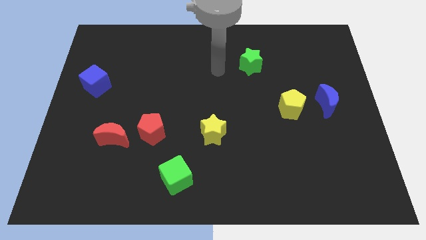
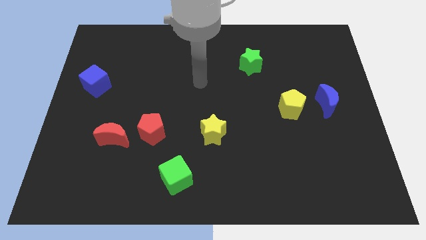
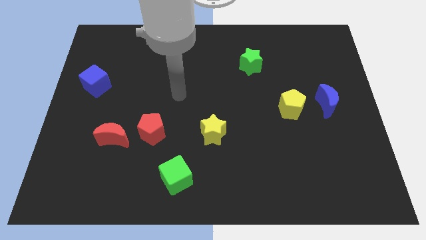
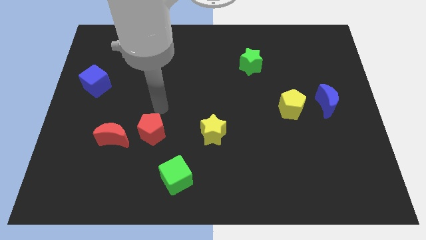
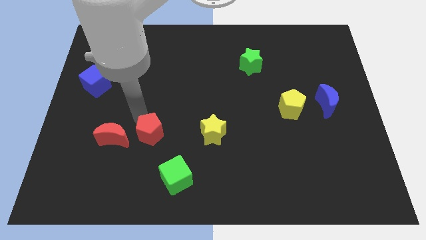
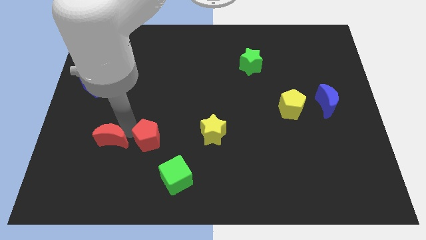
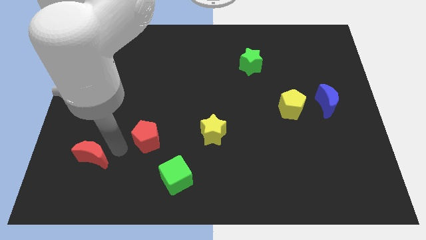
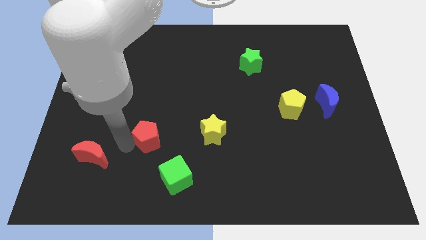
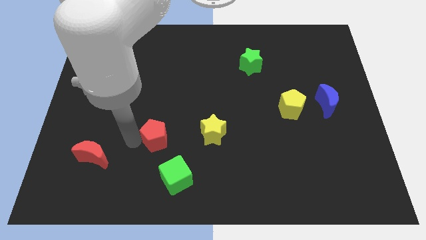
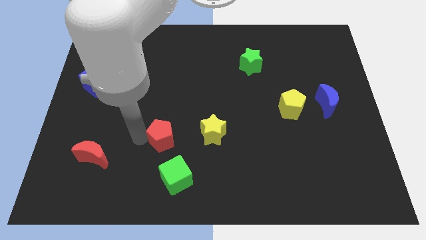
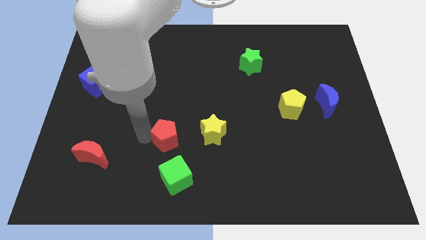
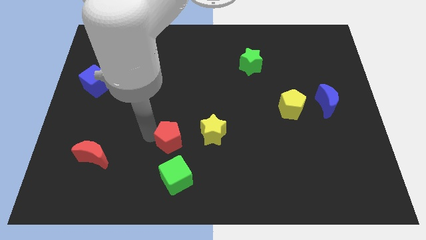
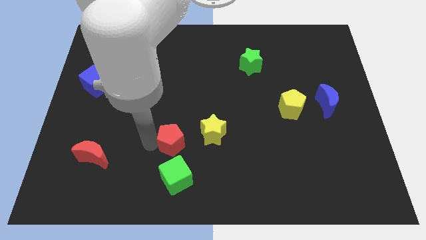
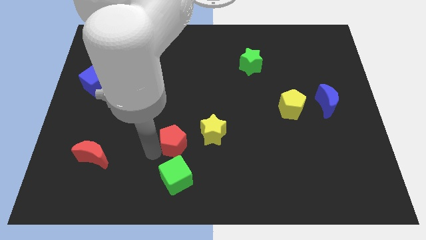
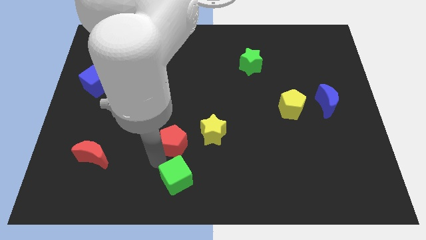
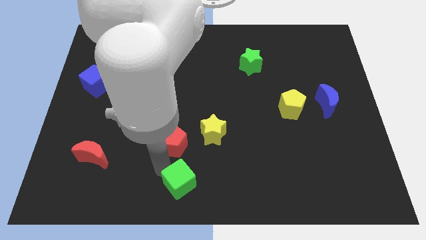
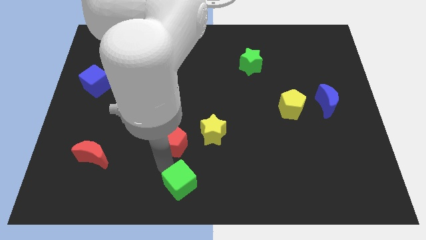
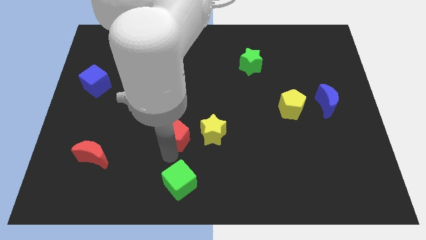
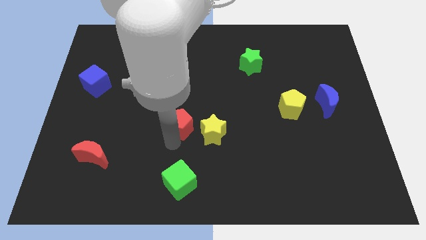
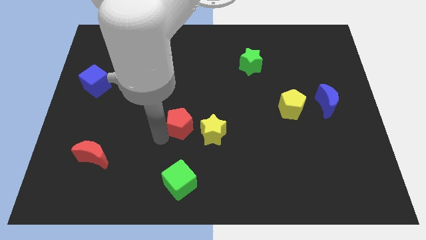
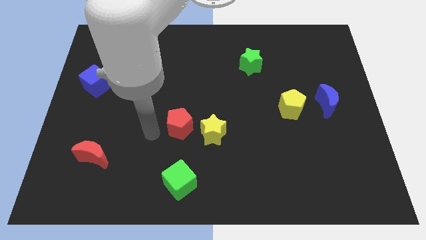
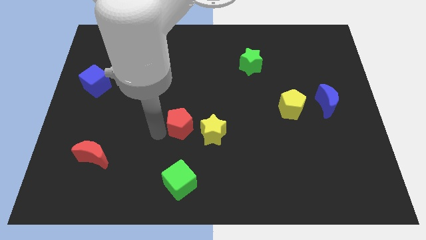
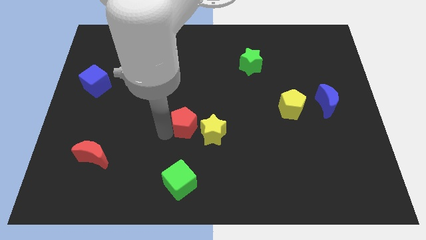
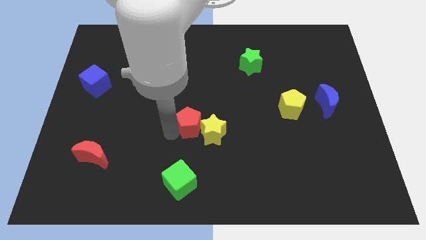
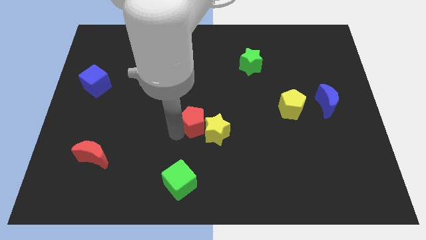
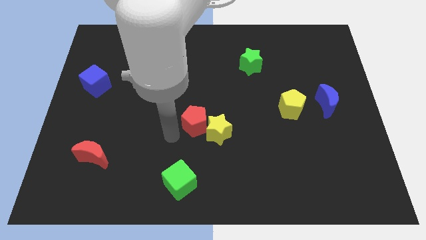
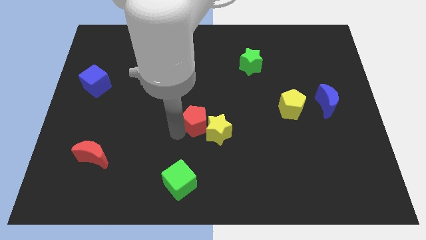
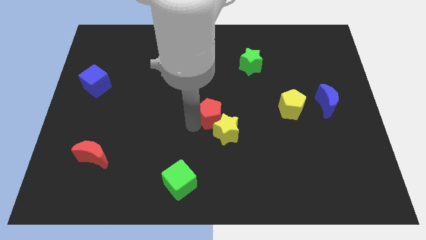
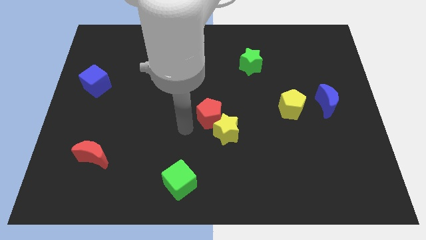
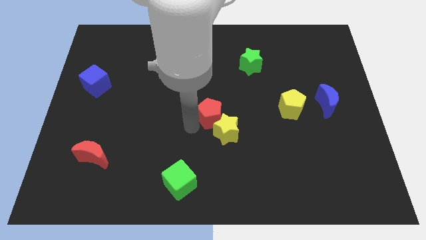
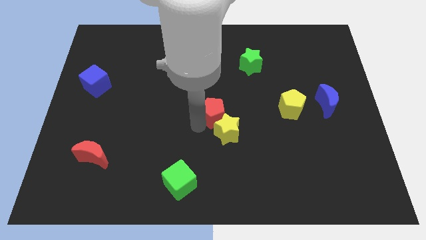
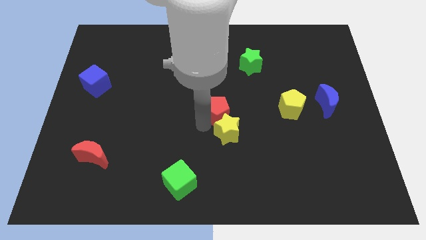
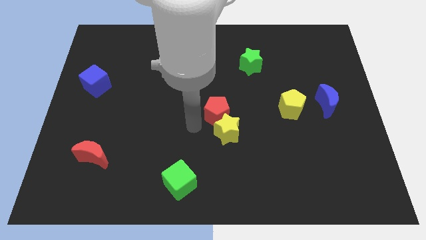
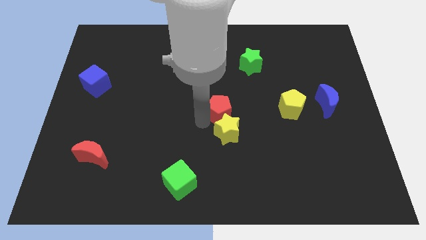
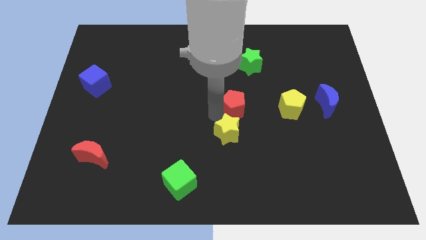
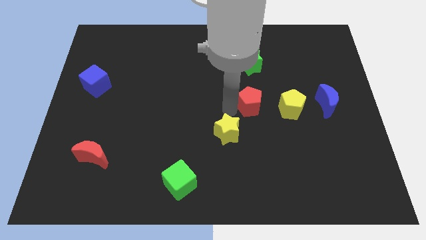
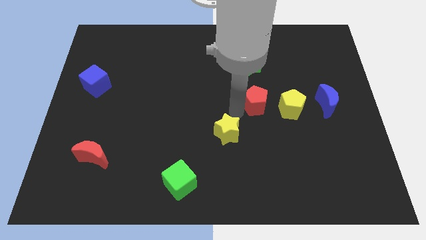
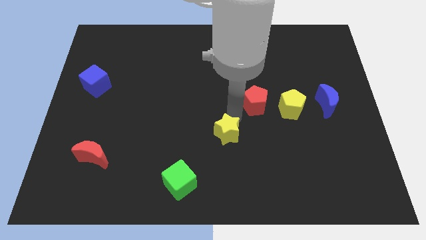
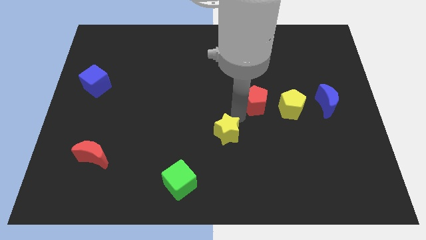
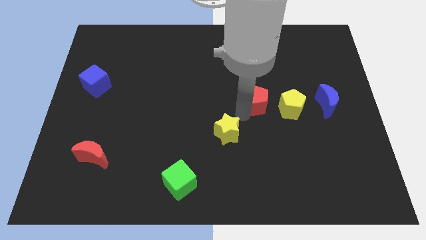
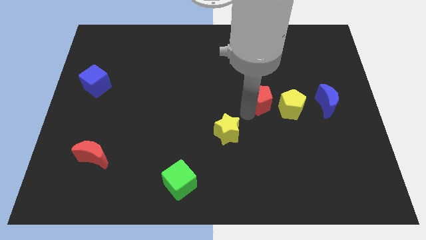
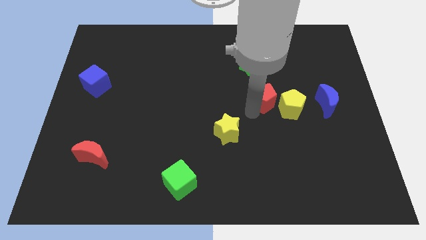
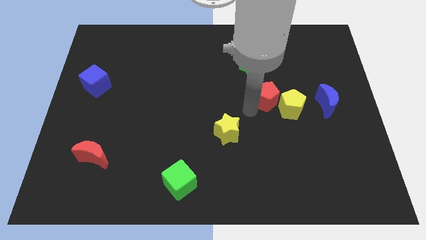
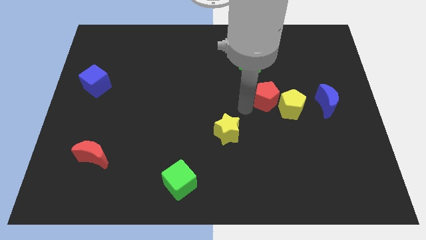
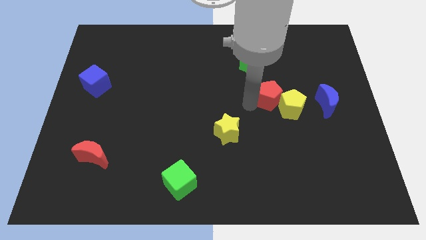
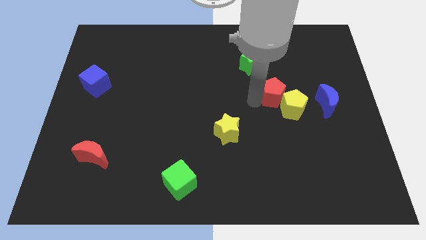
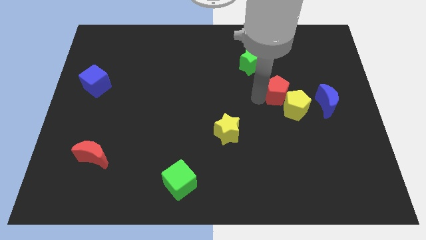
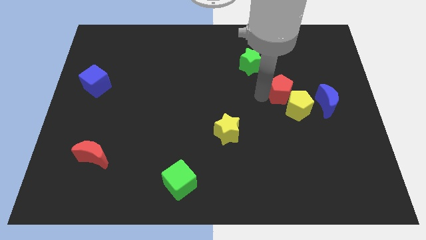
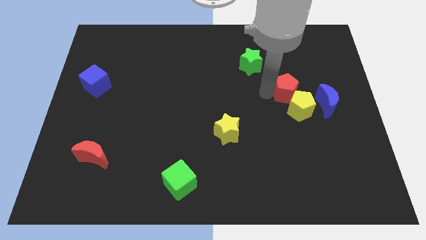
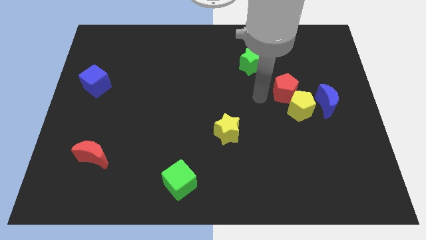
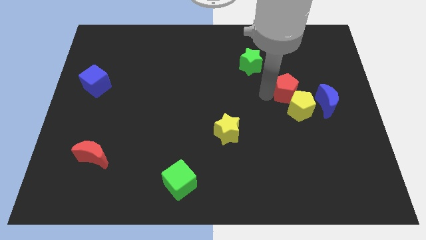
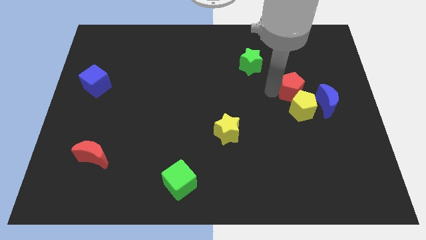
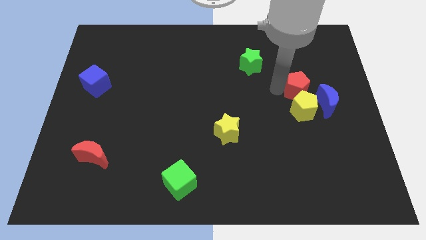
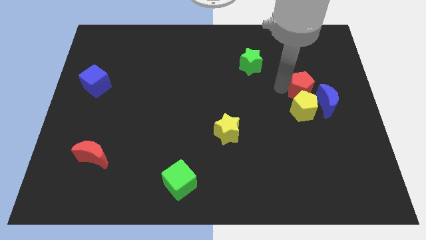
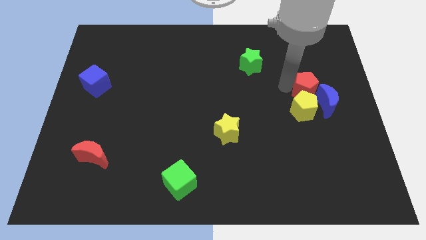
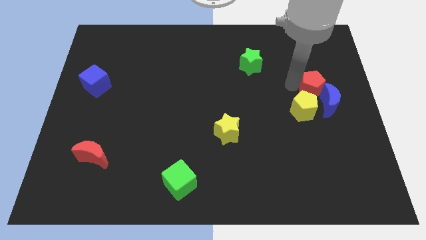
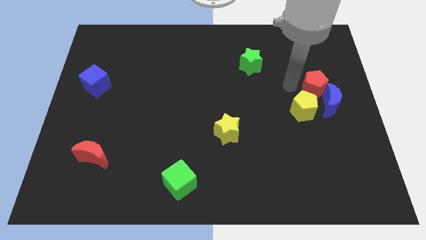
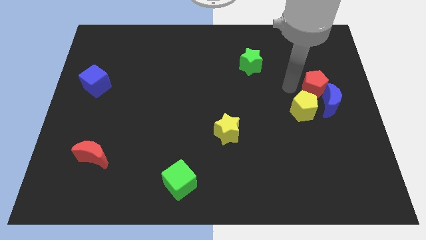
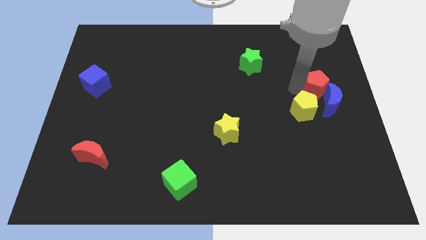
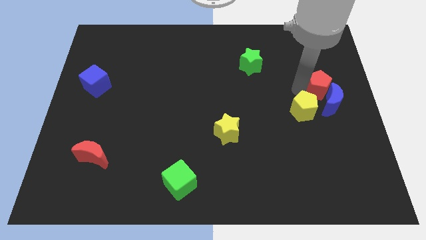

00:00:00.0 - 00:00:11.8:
push the red pentagon to the center right
